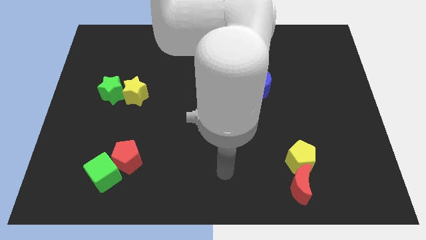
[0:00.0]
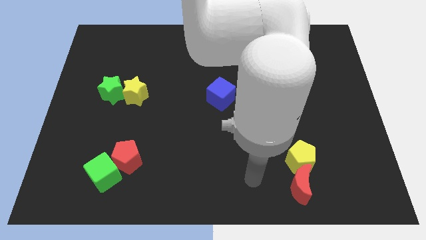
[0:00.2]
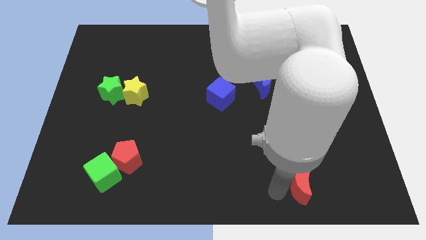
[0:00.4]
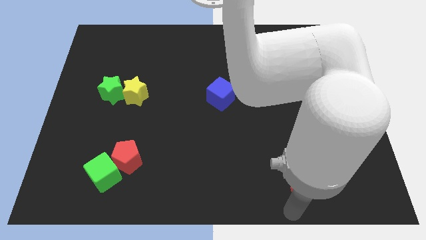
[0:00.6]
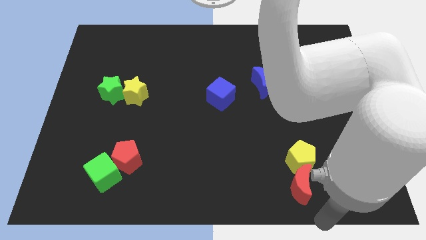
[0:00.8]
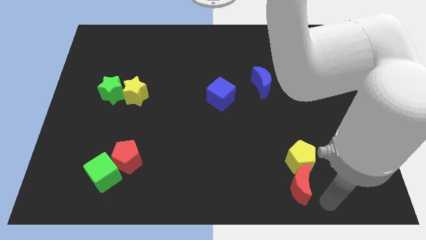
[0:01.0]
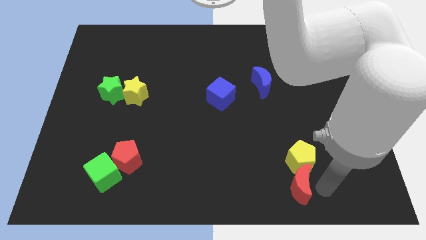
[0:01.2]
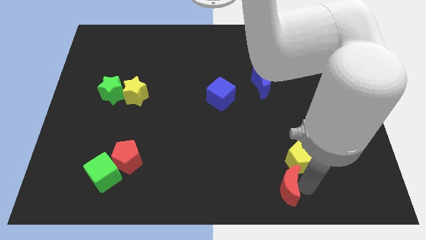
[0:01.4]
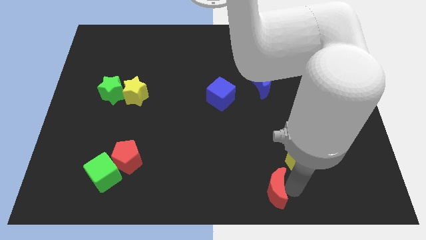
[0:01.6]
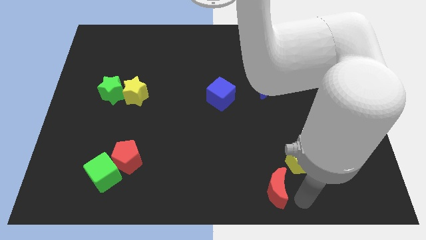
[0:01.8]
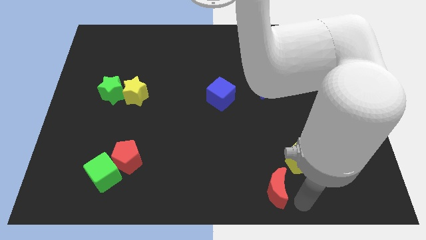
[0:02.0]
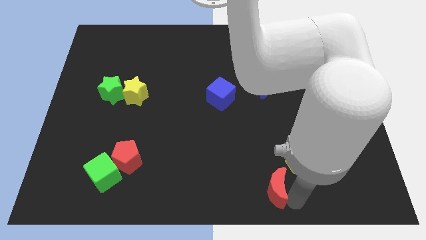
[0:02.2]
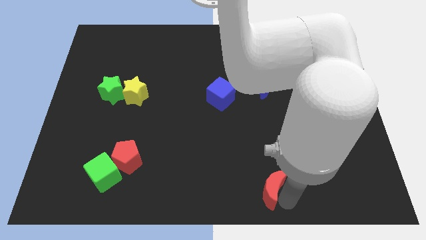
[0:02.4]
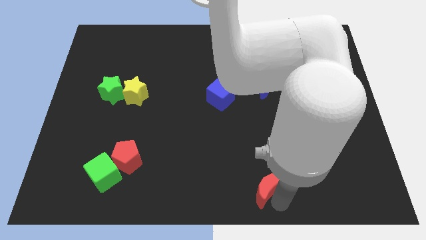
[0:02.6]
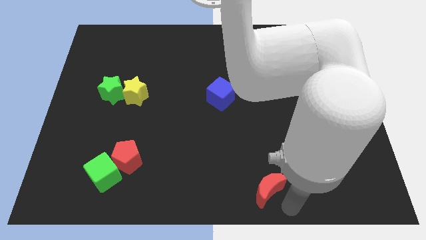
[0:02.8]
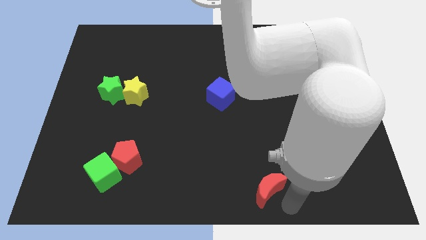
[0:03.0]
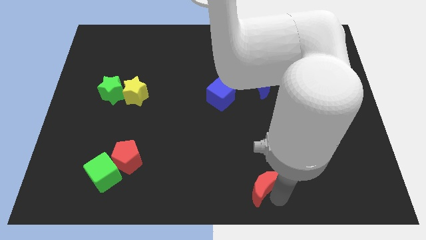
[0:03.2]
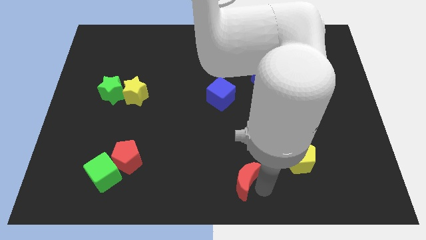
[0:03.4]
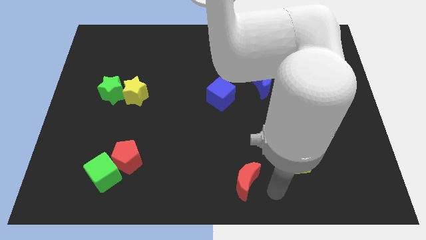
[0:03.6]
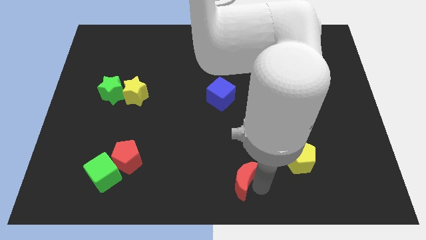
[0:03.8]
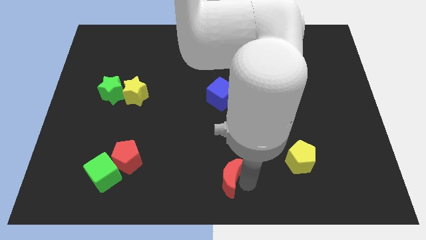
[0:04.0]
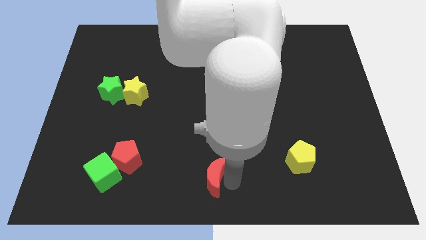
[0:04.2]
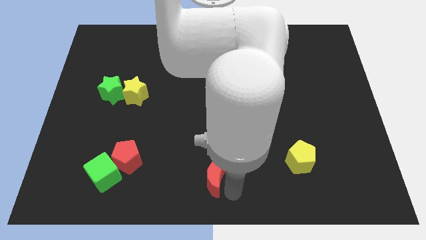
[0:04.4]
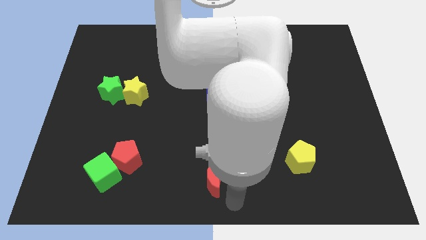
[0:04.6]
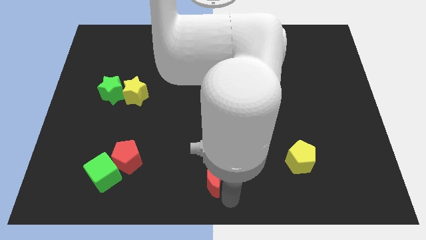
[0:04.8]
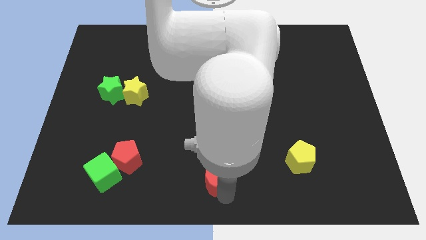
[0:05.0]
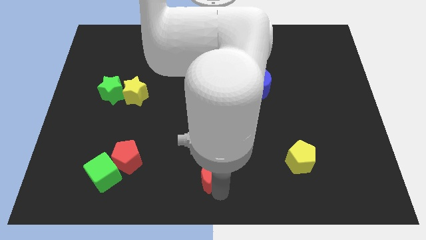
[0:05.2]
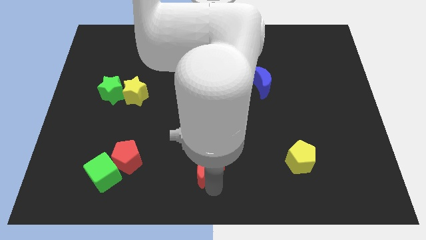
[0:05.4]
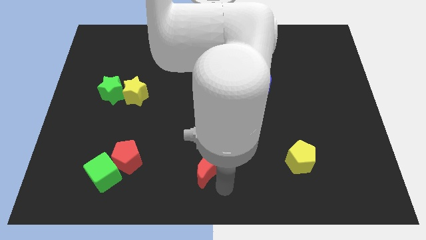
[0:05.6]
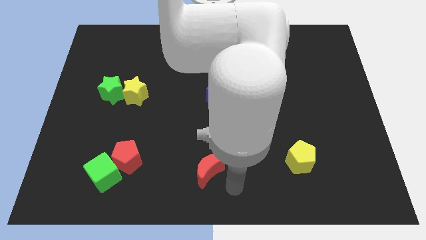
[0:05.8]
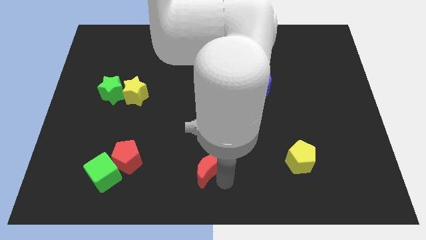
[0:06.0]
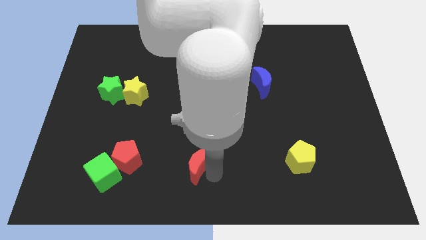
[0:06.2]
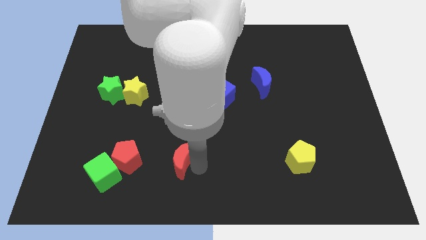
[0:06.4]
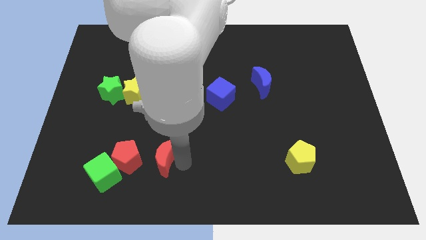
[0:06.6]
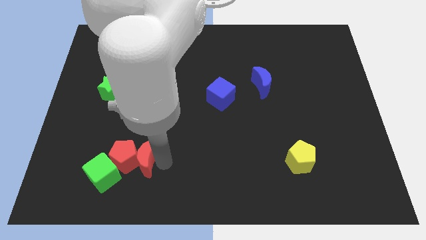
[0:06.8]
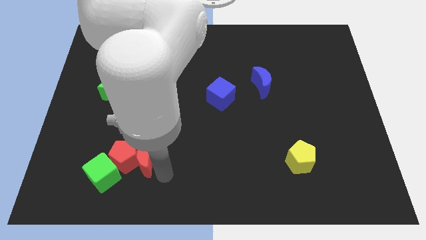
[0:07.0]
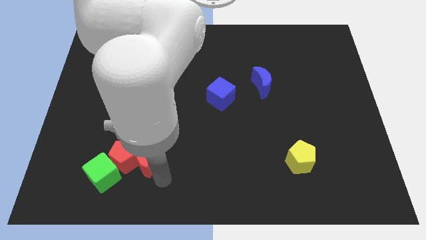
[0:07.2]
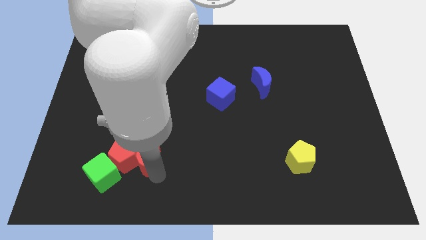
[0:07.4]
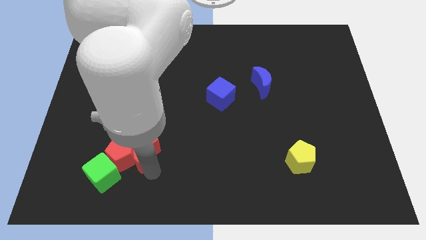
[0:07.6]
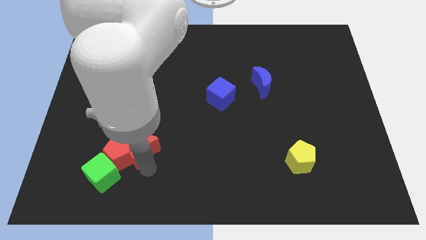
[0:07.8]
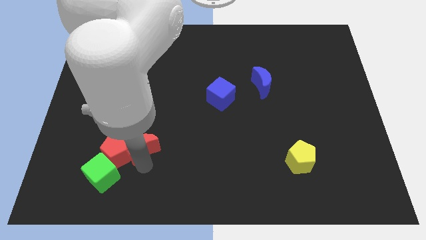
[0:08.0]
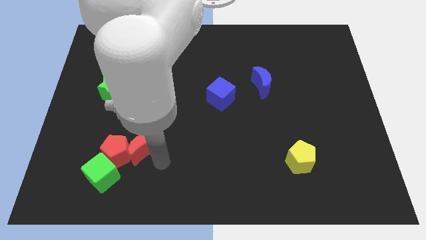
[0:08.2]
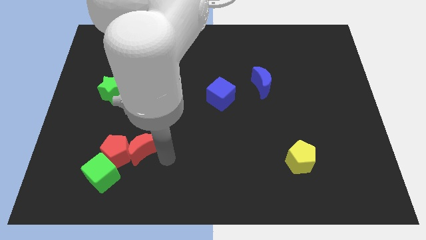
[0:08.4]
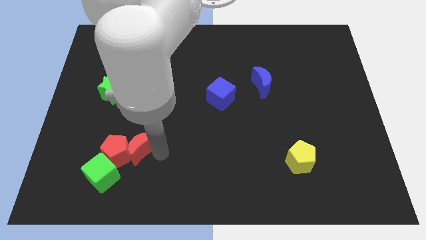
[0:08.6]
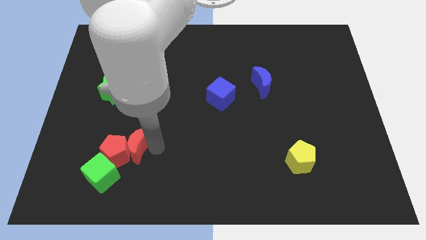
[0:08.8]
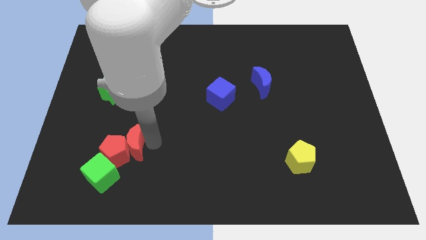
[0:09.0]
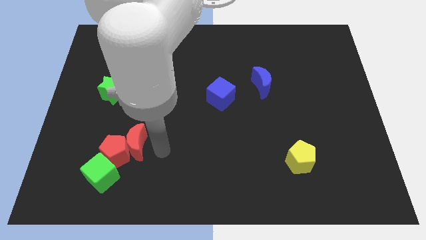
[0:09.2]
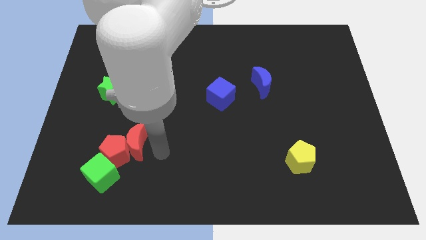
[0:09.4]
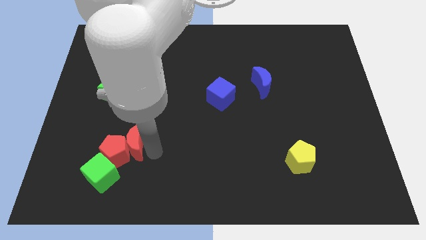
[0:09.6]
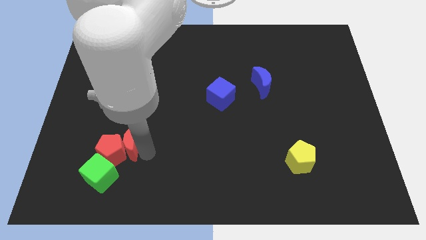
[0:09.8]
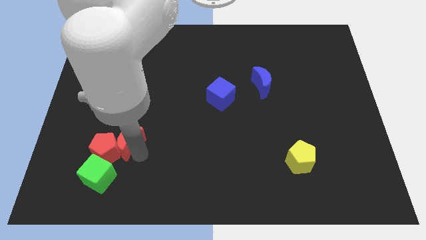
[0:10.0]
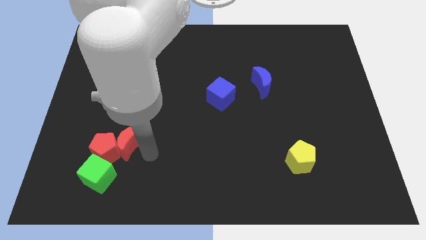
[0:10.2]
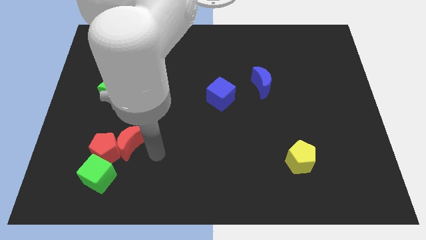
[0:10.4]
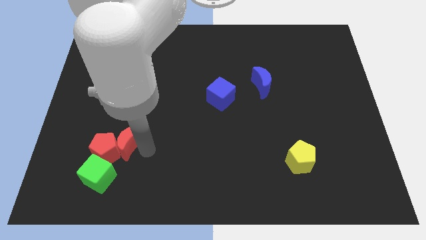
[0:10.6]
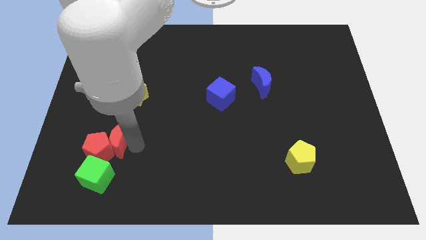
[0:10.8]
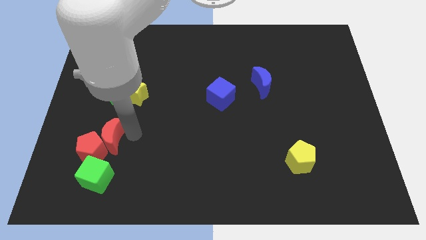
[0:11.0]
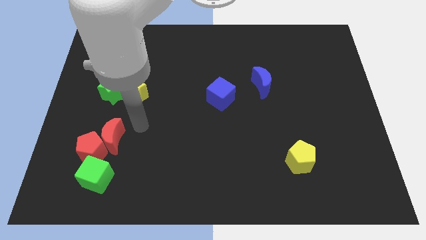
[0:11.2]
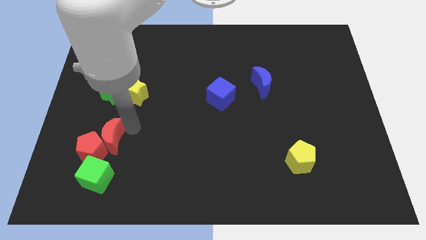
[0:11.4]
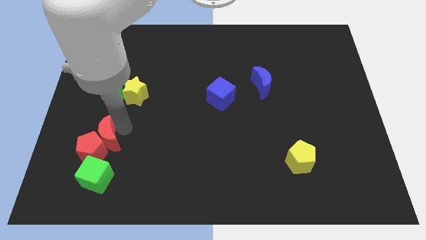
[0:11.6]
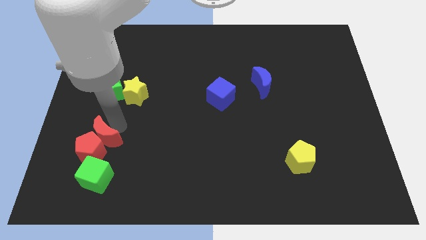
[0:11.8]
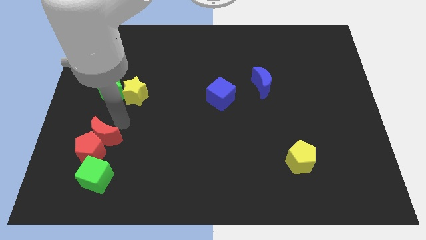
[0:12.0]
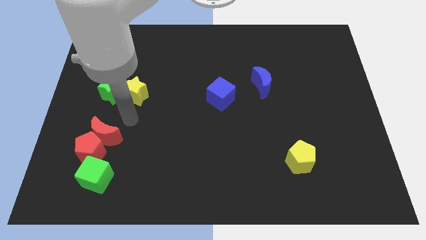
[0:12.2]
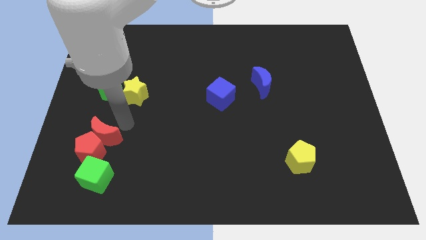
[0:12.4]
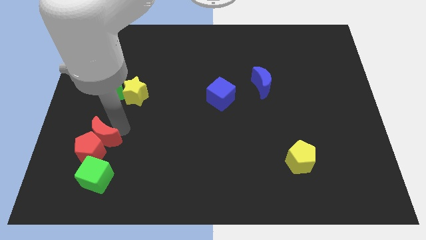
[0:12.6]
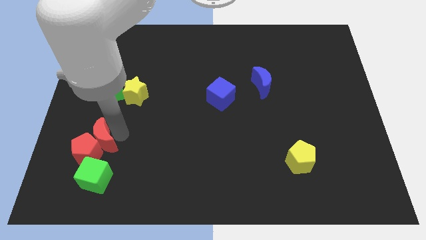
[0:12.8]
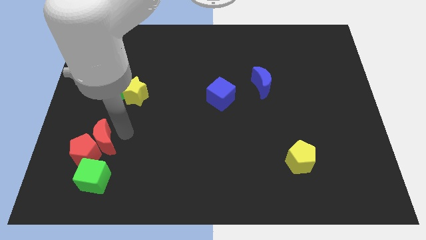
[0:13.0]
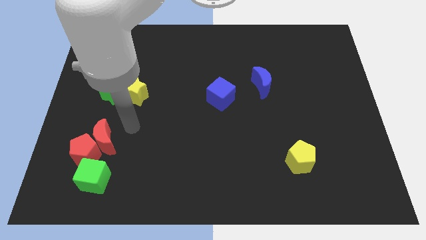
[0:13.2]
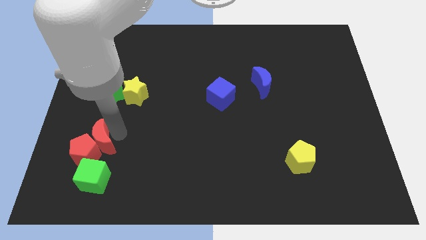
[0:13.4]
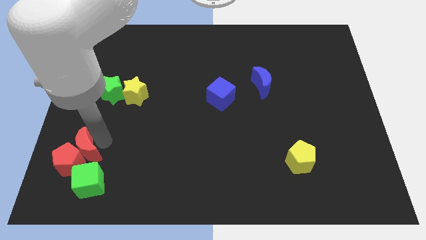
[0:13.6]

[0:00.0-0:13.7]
move the red moon diagonally up and to the left of the green cube

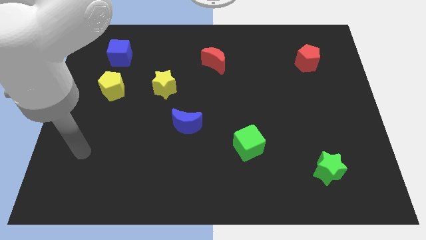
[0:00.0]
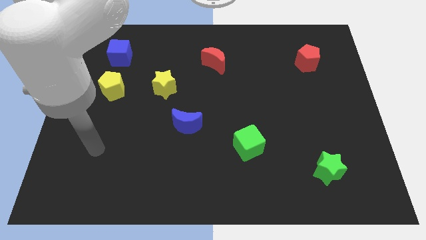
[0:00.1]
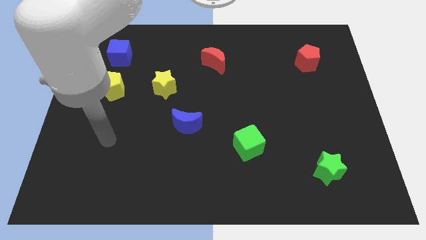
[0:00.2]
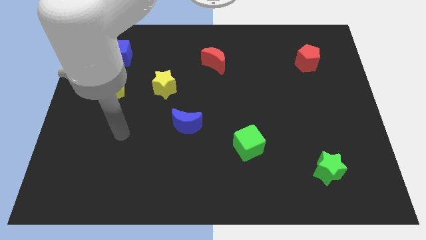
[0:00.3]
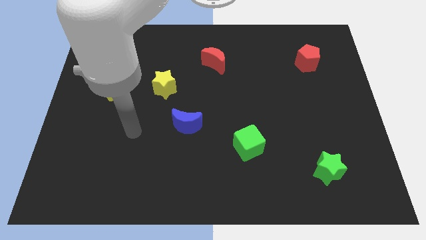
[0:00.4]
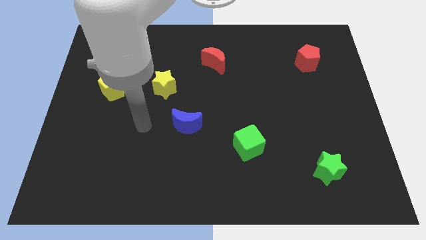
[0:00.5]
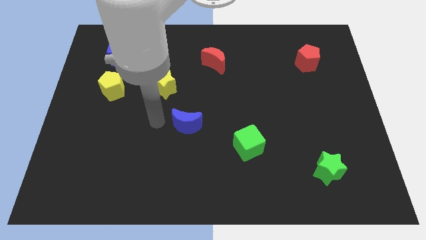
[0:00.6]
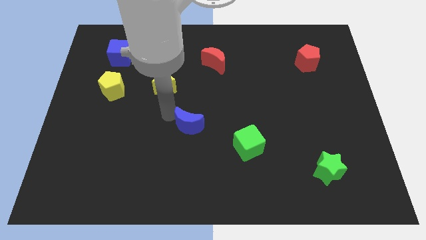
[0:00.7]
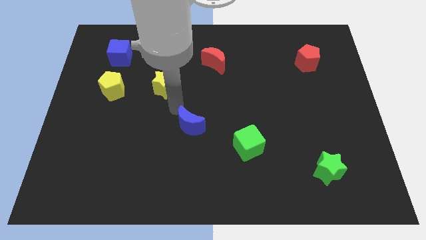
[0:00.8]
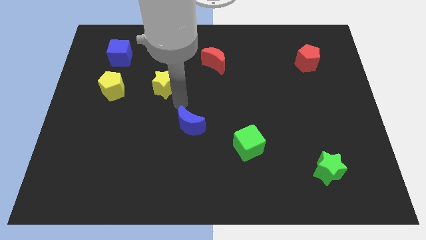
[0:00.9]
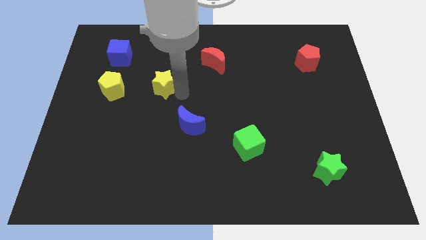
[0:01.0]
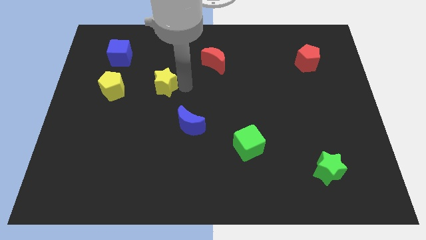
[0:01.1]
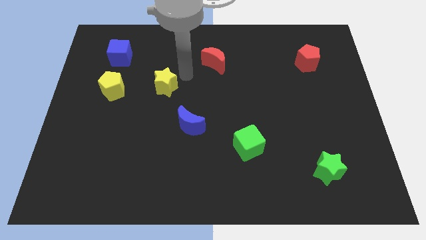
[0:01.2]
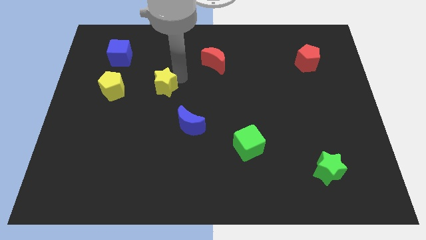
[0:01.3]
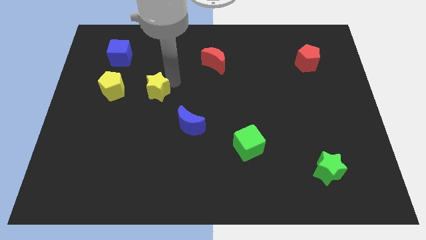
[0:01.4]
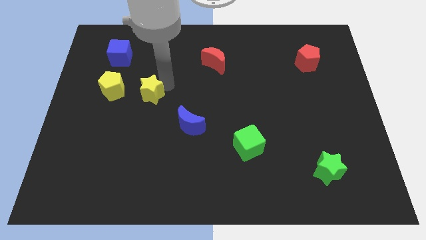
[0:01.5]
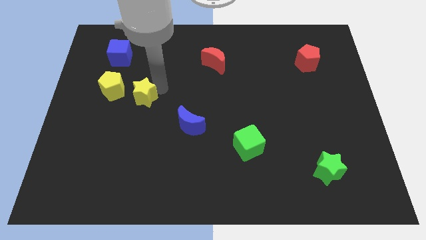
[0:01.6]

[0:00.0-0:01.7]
move the yellow star to the bottom right of the yellow pentagon
